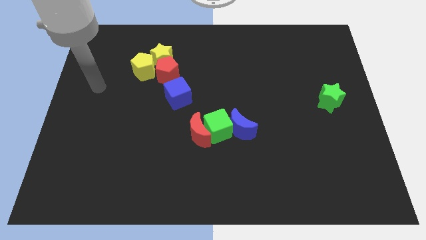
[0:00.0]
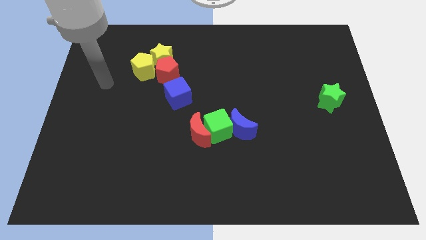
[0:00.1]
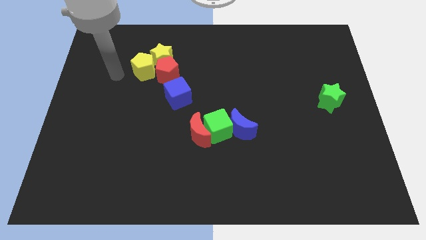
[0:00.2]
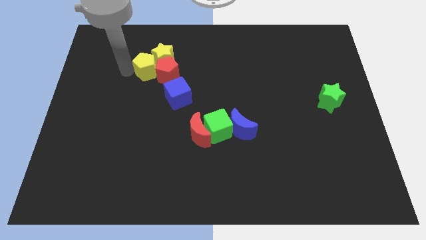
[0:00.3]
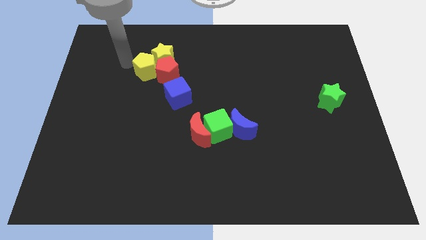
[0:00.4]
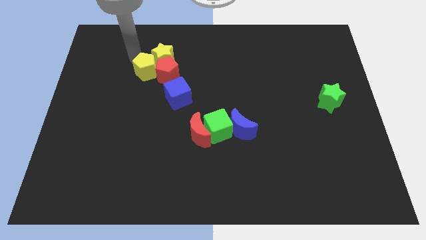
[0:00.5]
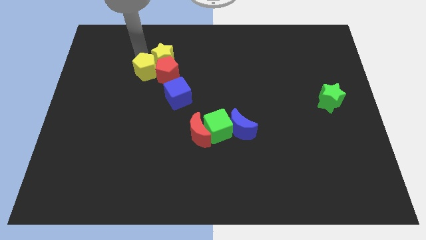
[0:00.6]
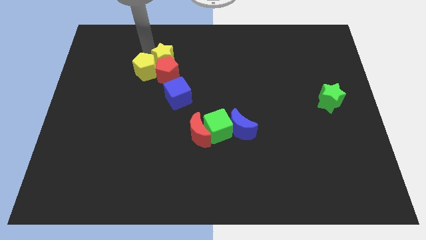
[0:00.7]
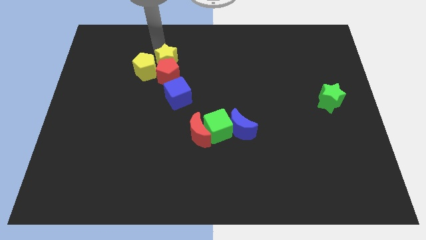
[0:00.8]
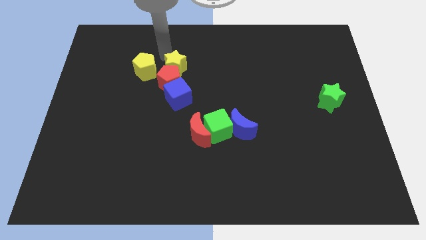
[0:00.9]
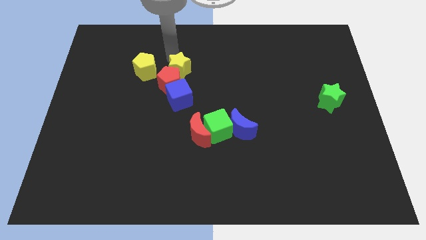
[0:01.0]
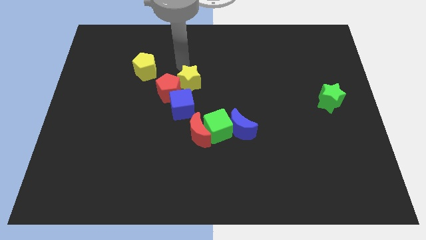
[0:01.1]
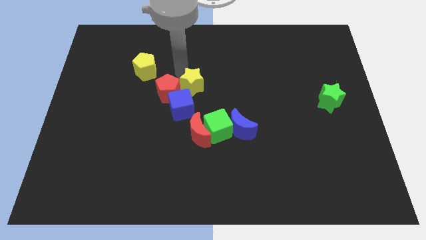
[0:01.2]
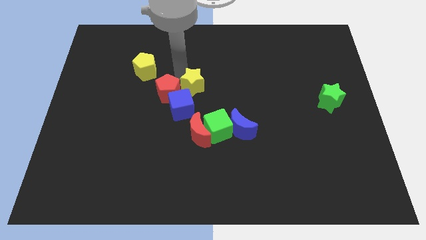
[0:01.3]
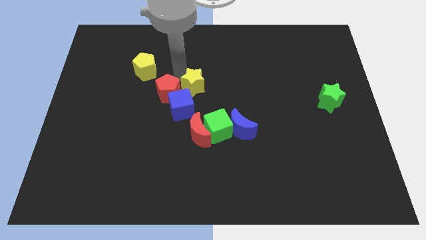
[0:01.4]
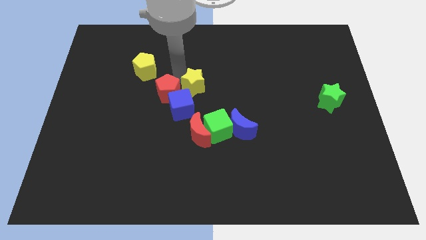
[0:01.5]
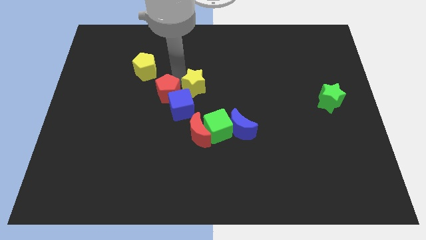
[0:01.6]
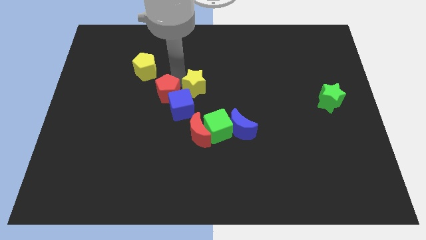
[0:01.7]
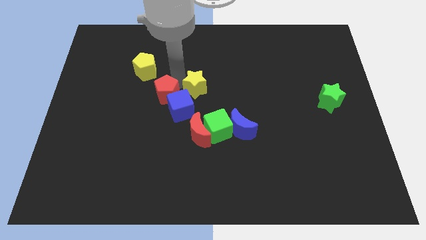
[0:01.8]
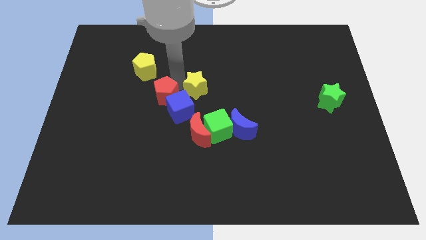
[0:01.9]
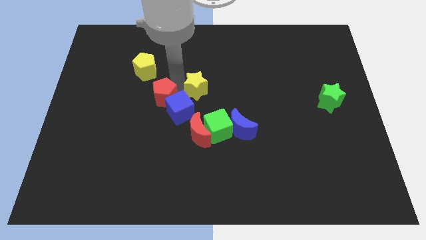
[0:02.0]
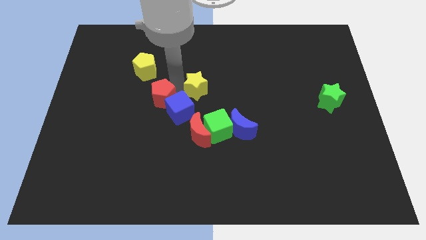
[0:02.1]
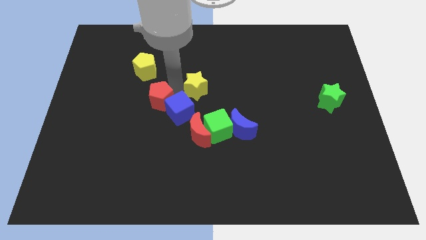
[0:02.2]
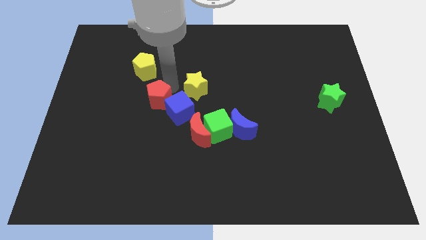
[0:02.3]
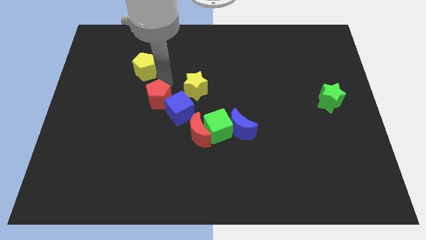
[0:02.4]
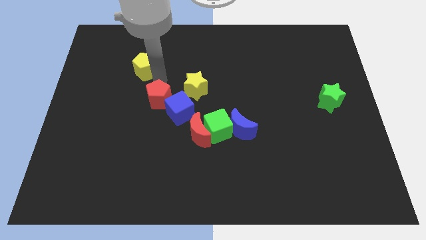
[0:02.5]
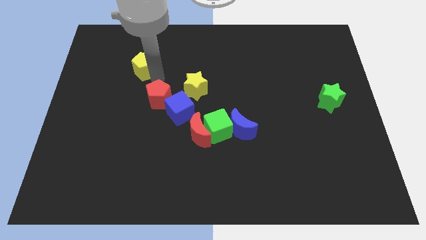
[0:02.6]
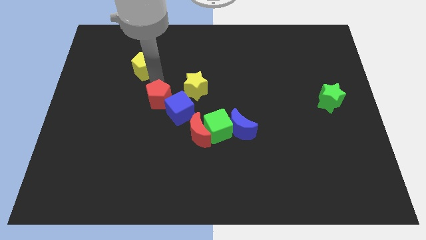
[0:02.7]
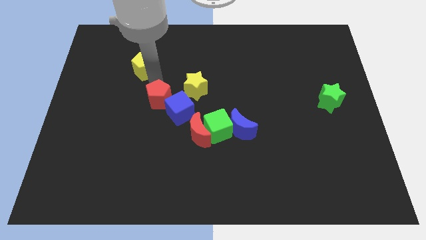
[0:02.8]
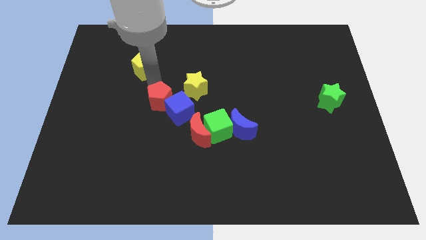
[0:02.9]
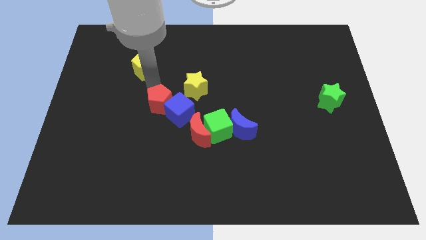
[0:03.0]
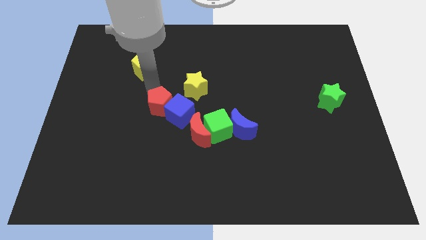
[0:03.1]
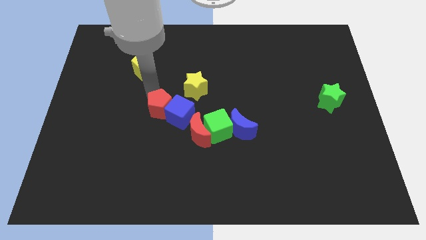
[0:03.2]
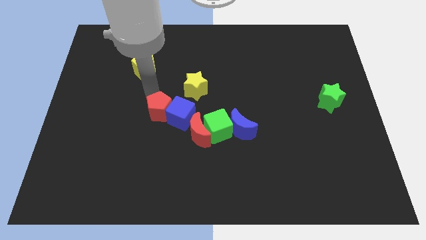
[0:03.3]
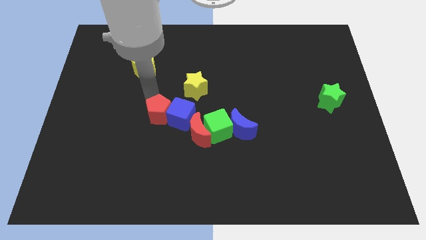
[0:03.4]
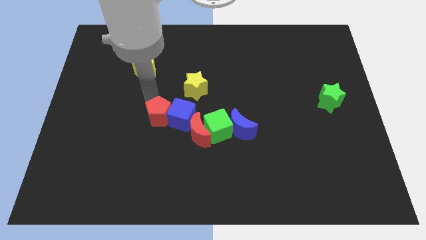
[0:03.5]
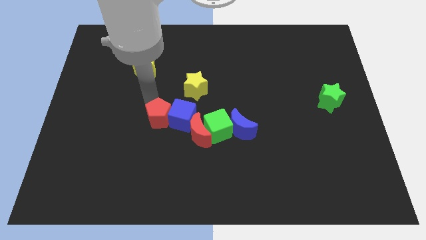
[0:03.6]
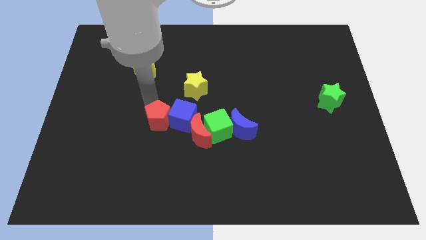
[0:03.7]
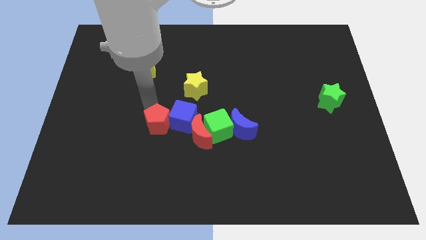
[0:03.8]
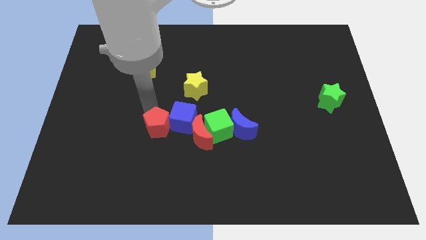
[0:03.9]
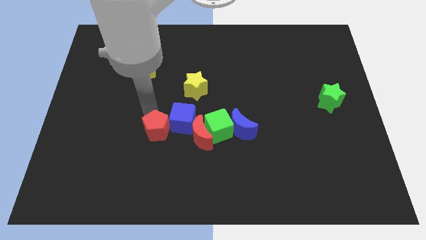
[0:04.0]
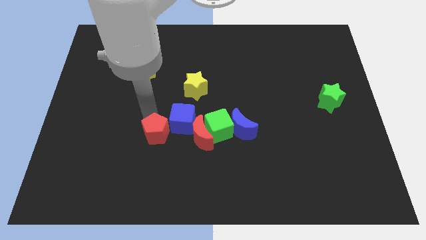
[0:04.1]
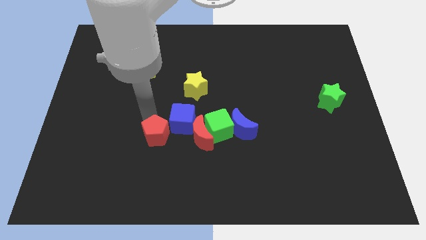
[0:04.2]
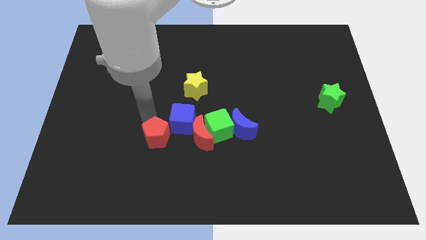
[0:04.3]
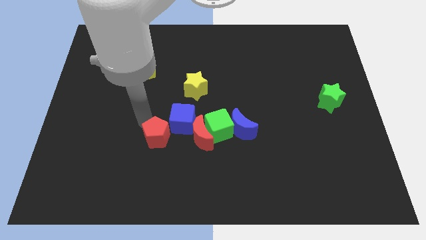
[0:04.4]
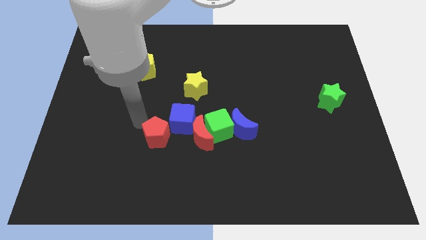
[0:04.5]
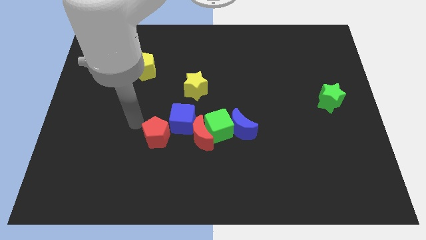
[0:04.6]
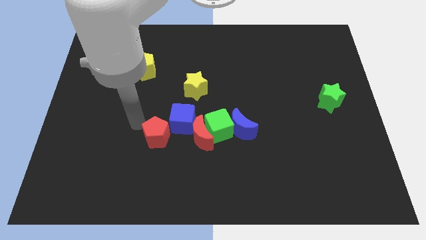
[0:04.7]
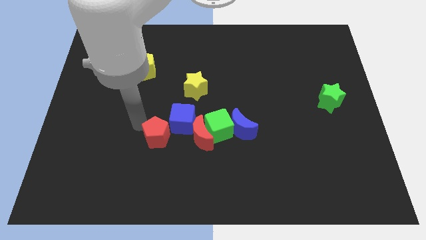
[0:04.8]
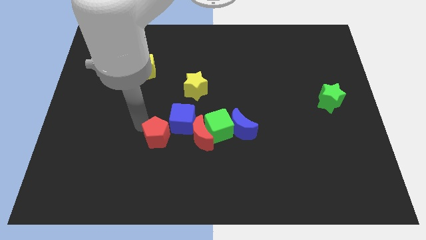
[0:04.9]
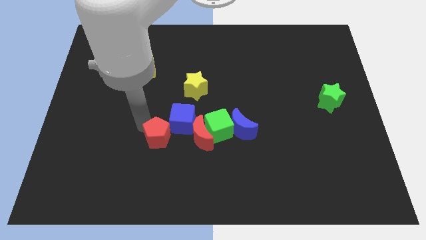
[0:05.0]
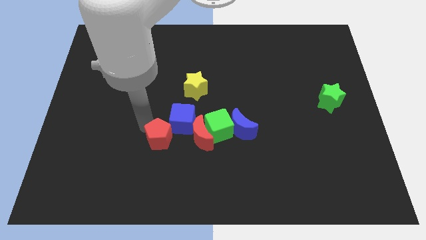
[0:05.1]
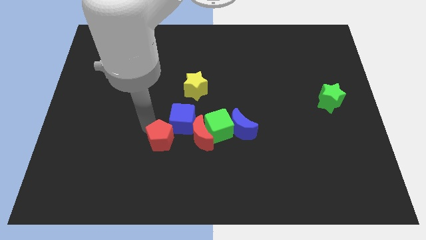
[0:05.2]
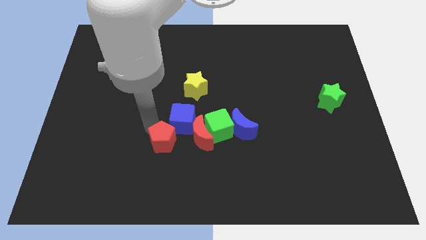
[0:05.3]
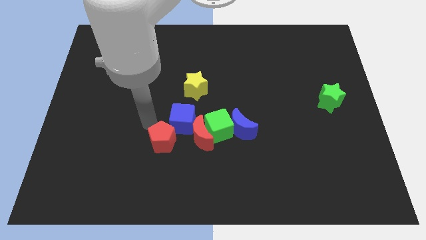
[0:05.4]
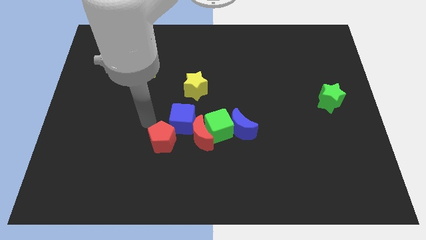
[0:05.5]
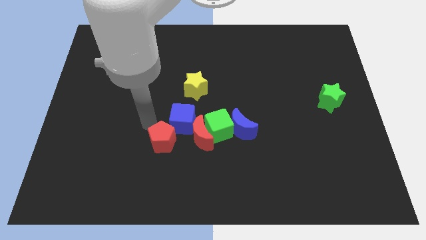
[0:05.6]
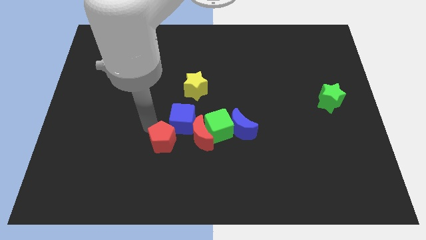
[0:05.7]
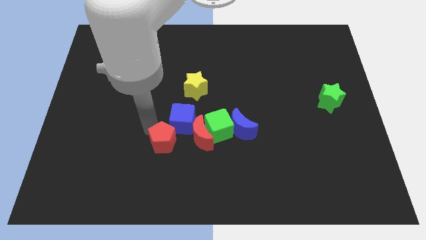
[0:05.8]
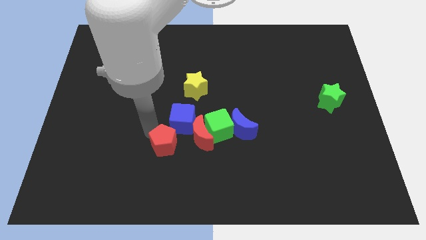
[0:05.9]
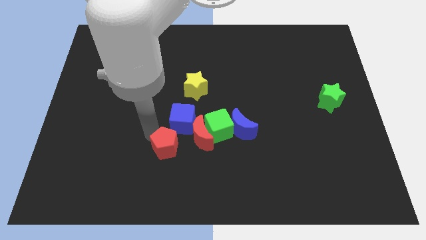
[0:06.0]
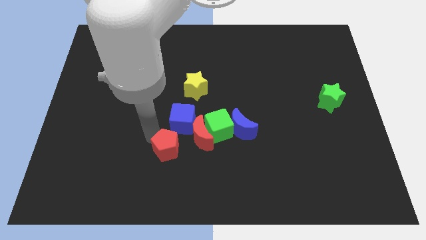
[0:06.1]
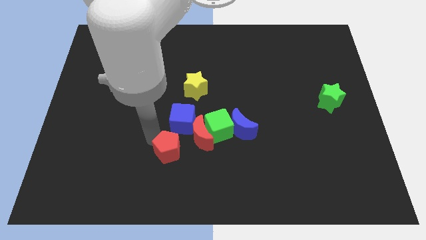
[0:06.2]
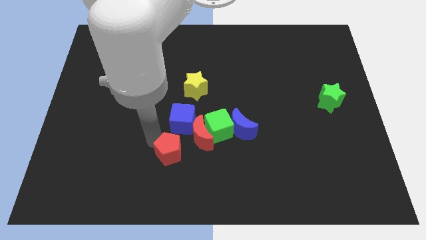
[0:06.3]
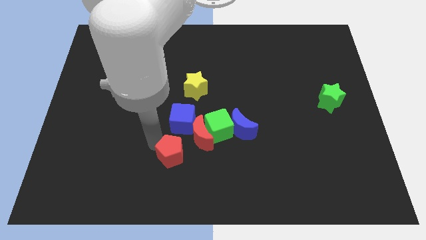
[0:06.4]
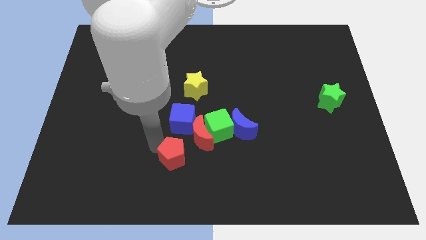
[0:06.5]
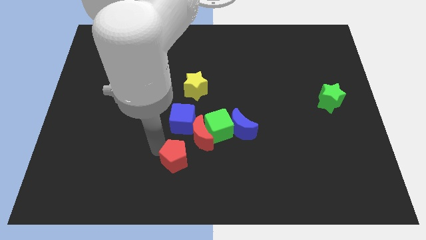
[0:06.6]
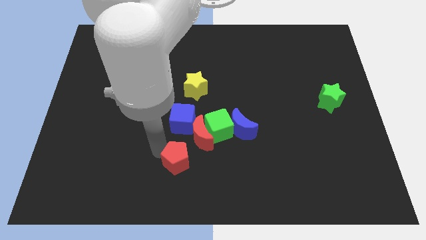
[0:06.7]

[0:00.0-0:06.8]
push the red pentagon to the bottom

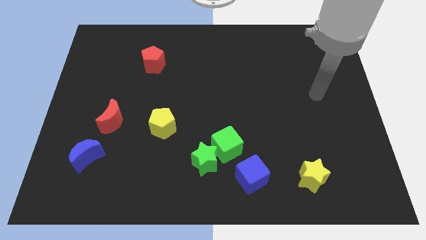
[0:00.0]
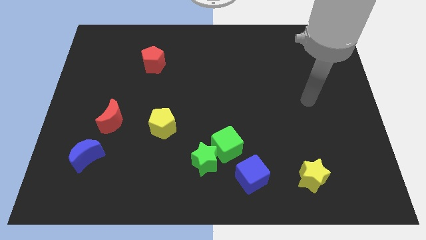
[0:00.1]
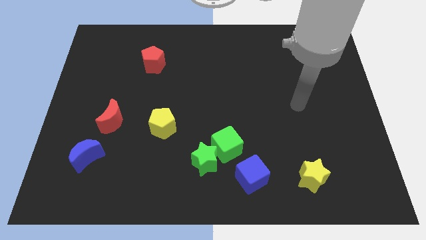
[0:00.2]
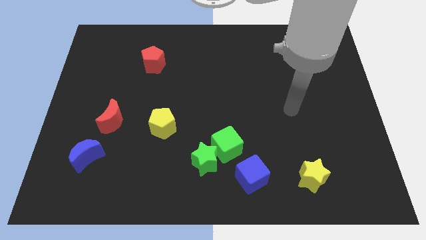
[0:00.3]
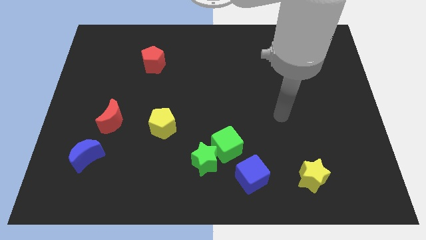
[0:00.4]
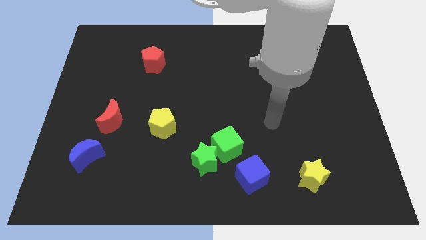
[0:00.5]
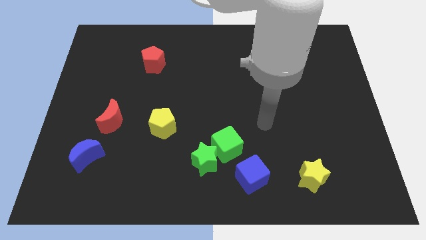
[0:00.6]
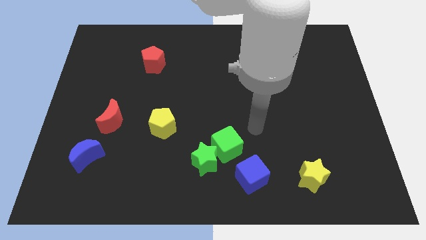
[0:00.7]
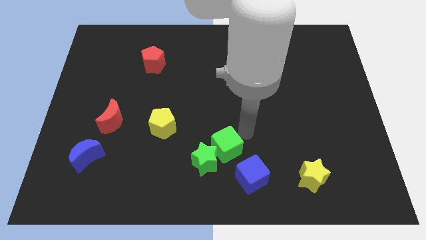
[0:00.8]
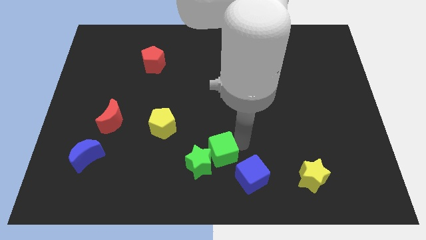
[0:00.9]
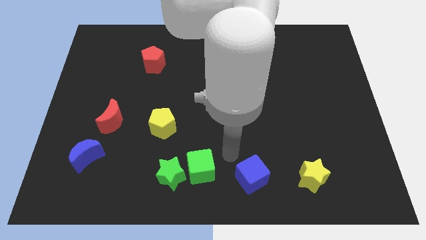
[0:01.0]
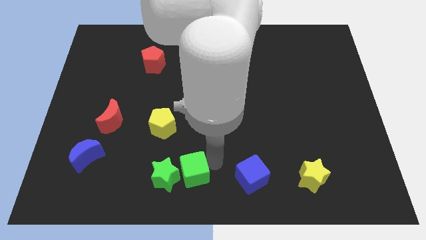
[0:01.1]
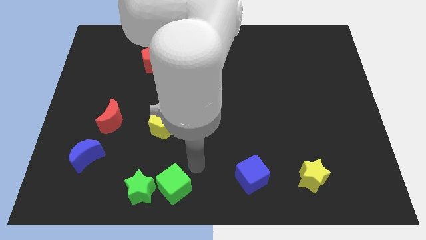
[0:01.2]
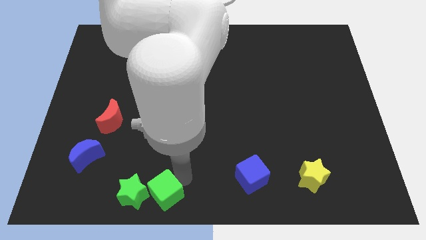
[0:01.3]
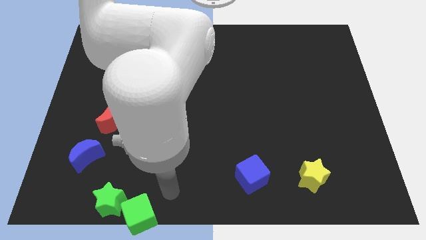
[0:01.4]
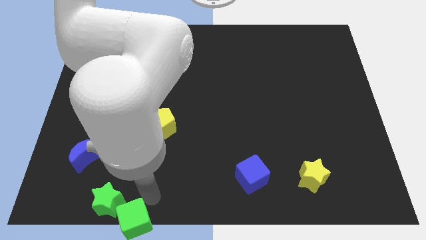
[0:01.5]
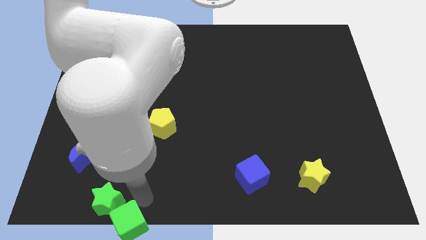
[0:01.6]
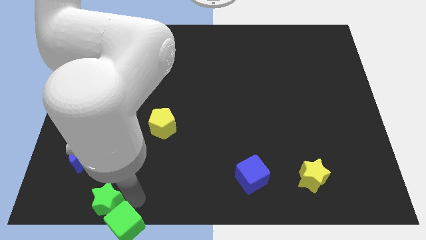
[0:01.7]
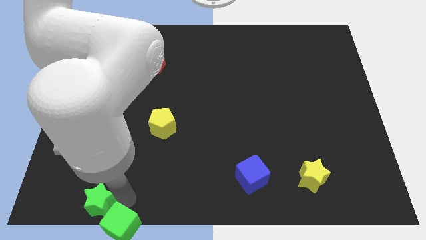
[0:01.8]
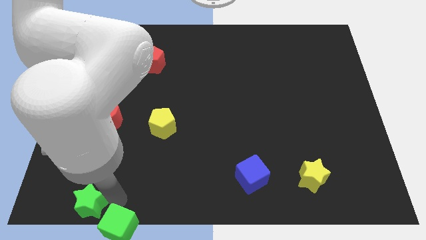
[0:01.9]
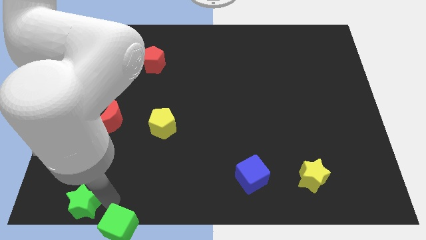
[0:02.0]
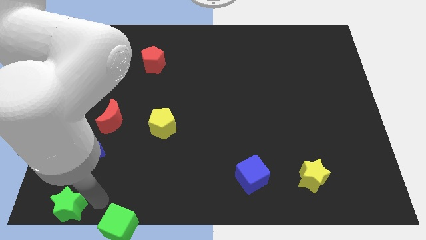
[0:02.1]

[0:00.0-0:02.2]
slide the green star to the lower left corner
